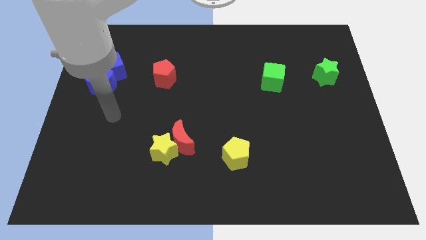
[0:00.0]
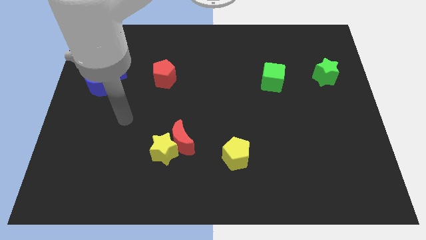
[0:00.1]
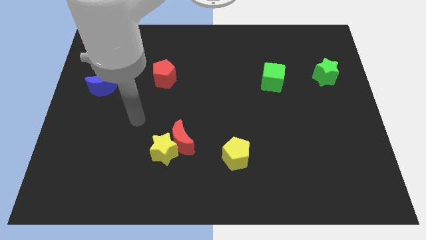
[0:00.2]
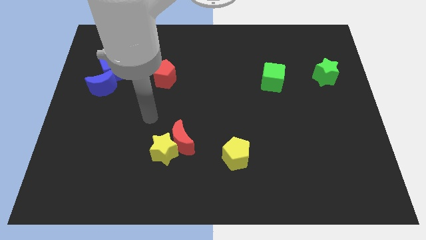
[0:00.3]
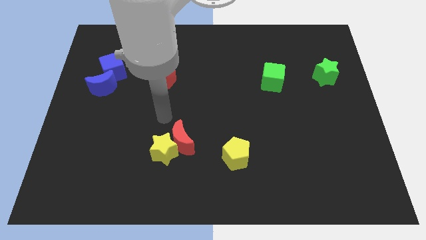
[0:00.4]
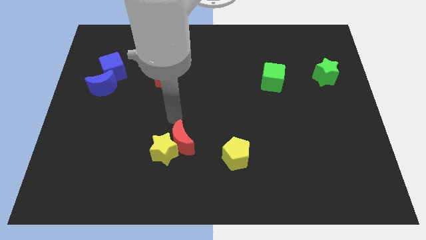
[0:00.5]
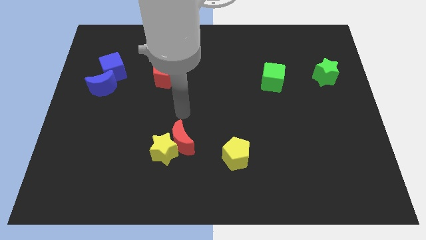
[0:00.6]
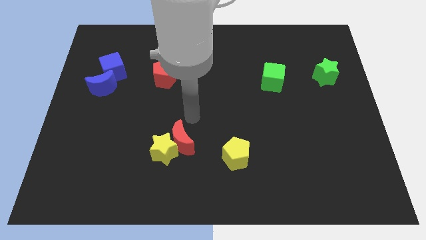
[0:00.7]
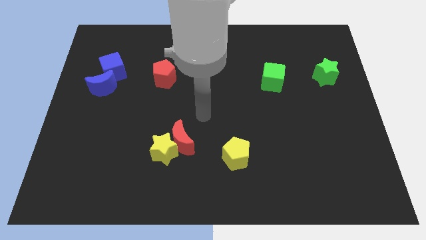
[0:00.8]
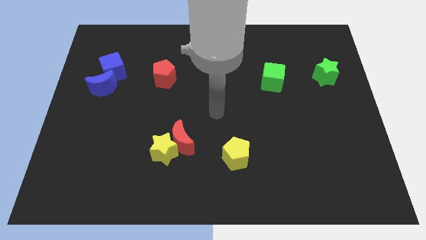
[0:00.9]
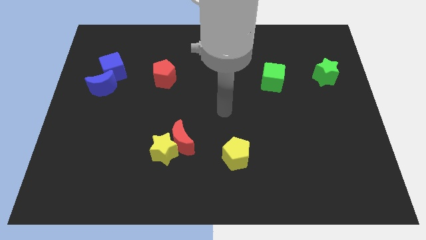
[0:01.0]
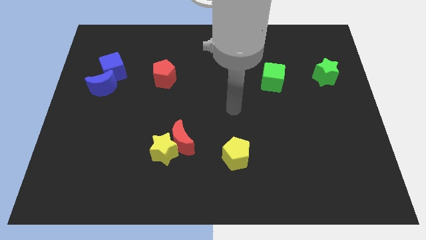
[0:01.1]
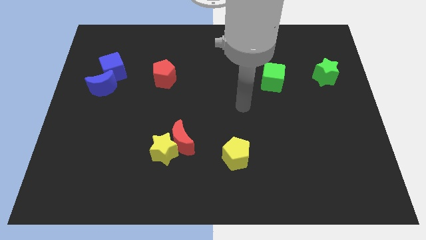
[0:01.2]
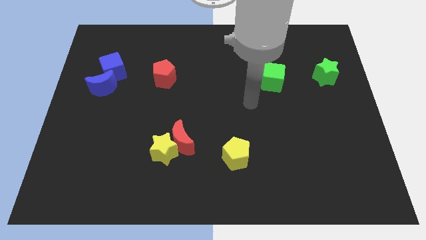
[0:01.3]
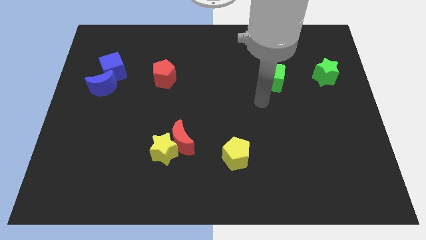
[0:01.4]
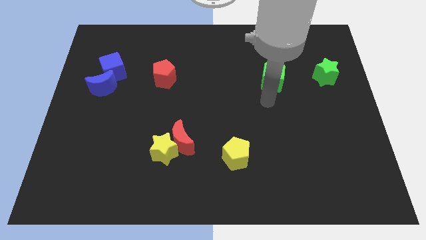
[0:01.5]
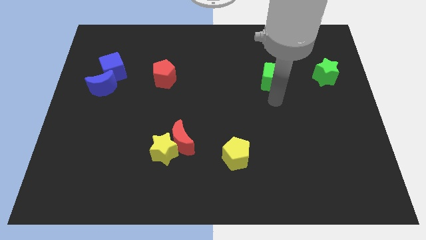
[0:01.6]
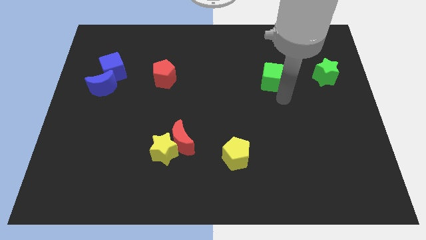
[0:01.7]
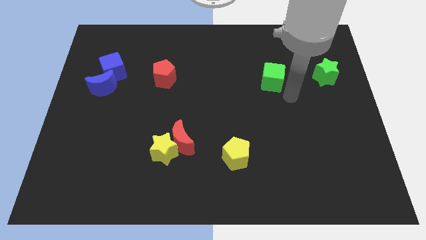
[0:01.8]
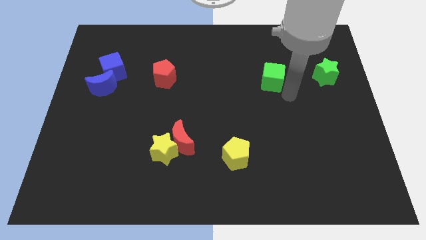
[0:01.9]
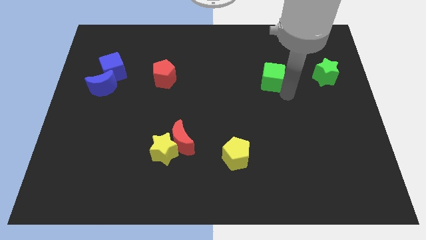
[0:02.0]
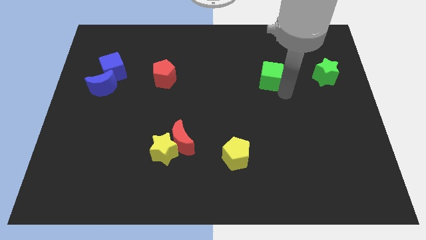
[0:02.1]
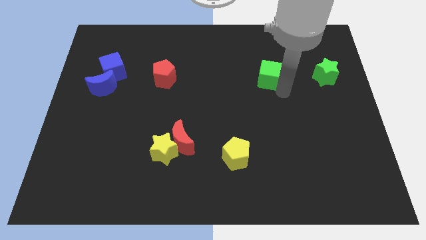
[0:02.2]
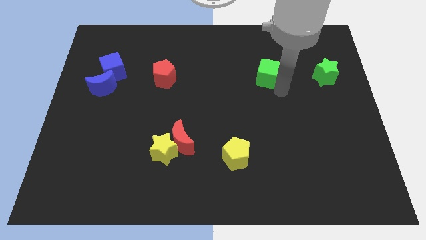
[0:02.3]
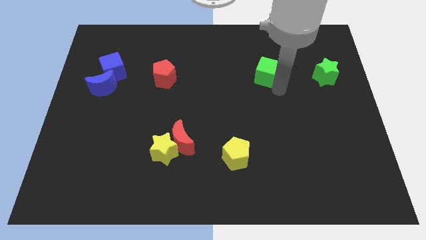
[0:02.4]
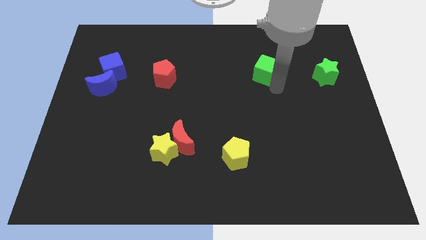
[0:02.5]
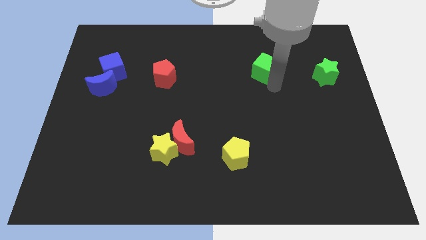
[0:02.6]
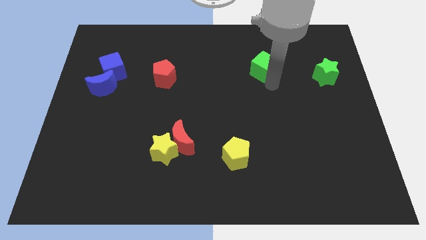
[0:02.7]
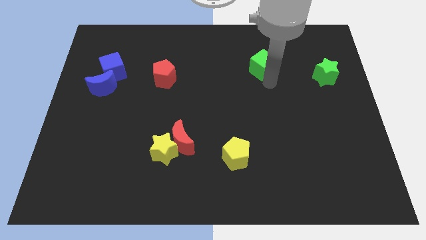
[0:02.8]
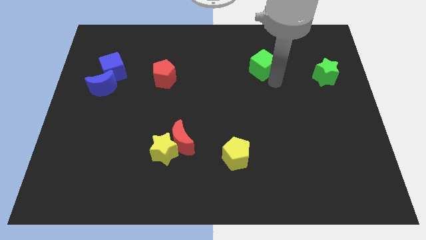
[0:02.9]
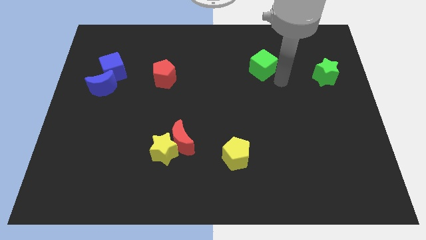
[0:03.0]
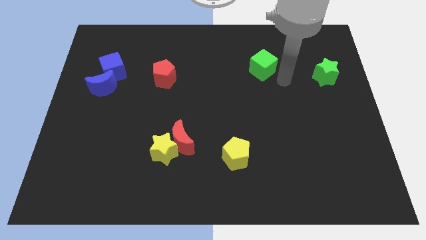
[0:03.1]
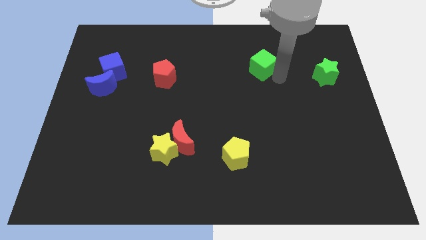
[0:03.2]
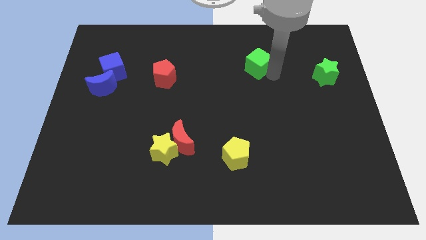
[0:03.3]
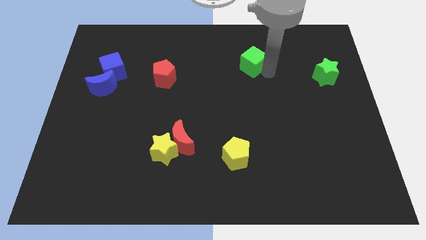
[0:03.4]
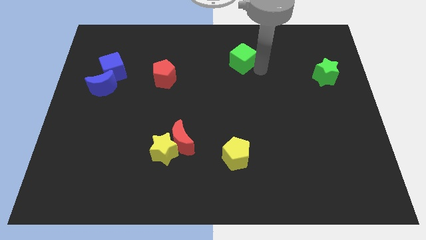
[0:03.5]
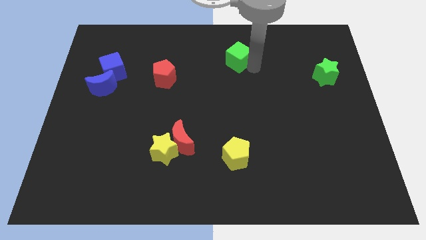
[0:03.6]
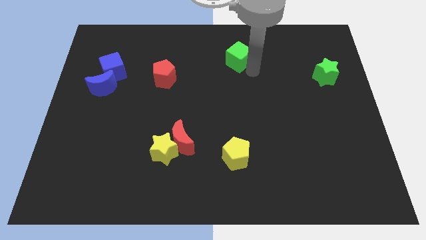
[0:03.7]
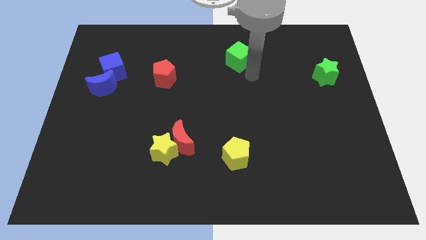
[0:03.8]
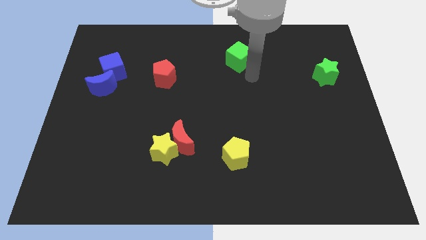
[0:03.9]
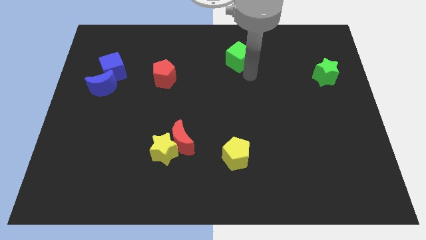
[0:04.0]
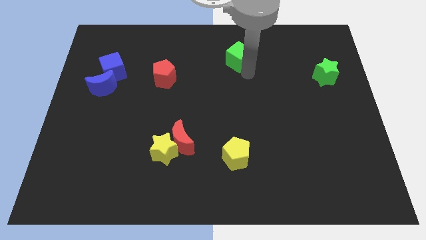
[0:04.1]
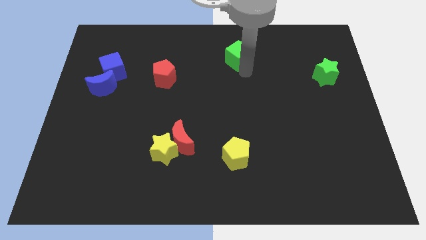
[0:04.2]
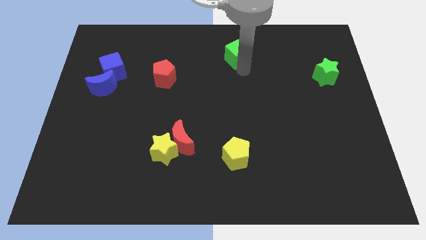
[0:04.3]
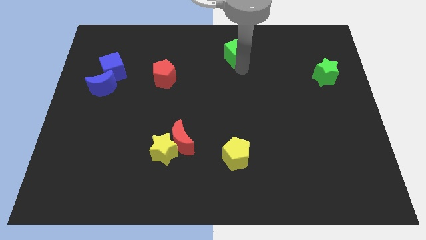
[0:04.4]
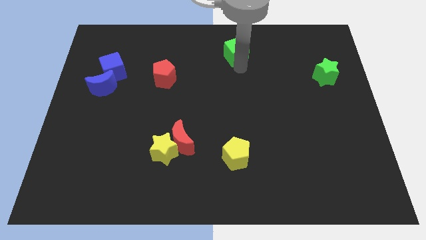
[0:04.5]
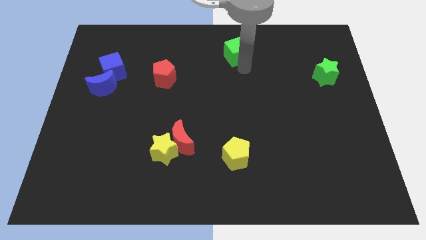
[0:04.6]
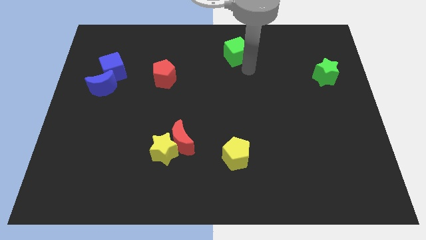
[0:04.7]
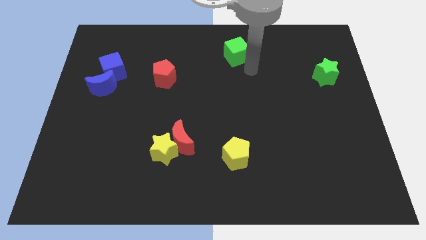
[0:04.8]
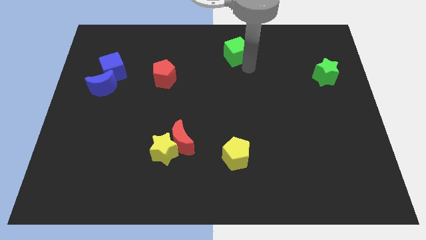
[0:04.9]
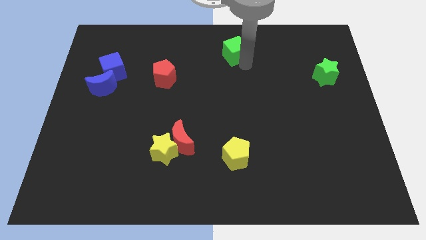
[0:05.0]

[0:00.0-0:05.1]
move the green cube to the towards your base

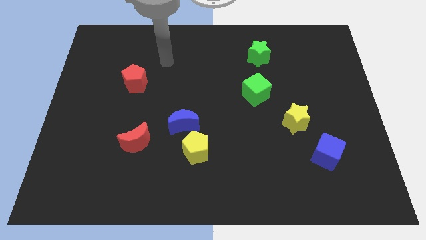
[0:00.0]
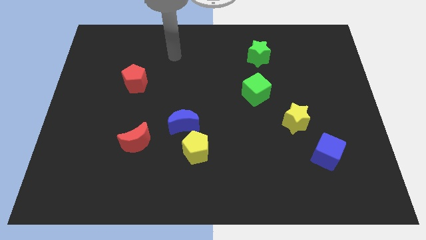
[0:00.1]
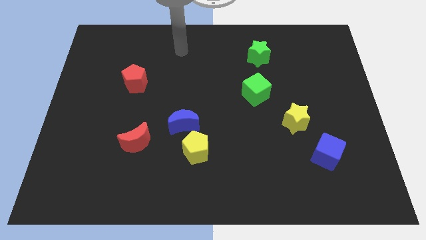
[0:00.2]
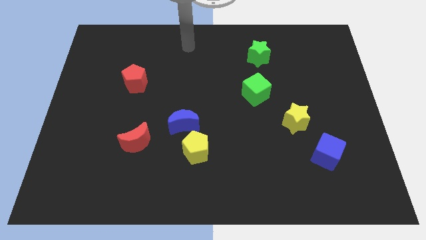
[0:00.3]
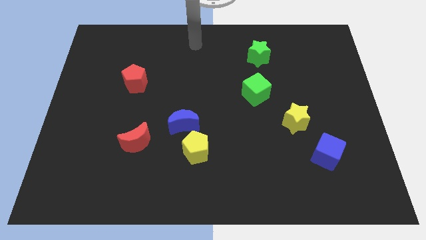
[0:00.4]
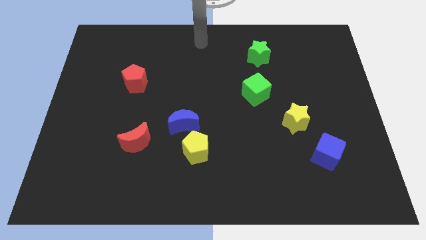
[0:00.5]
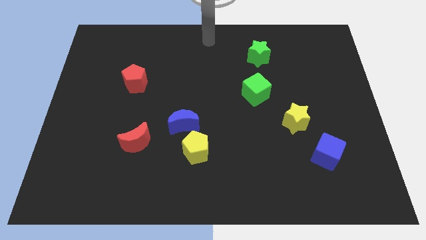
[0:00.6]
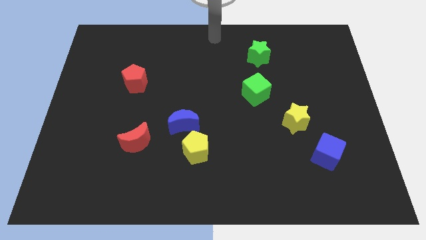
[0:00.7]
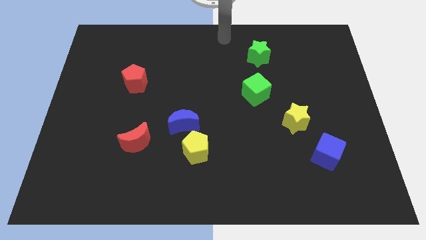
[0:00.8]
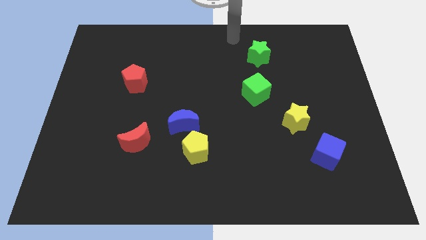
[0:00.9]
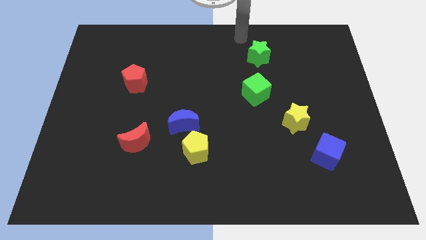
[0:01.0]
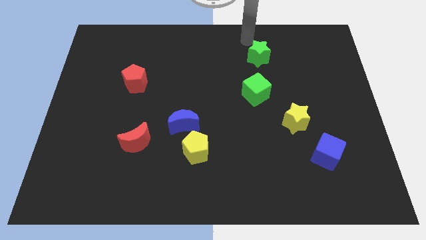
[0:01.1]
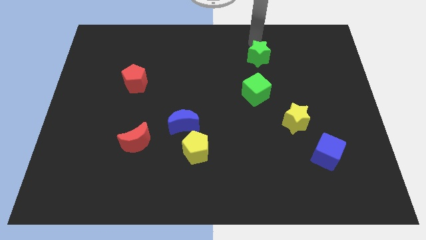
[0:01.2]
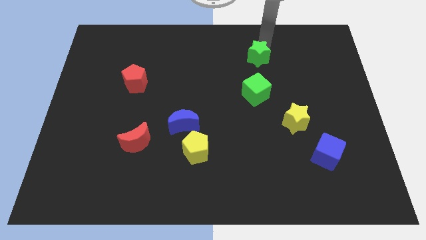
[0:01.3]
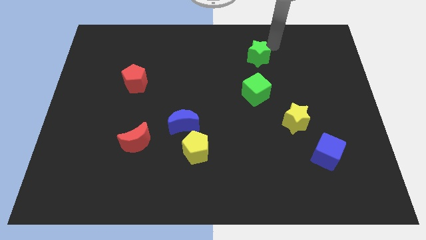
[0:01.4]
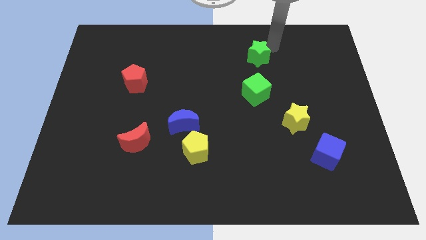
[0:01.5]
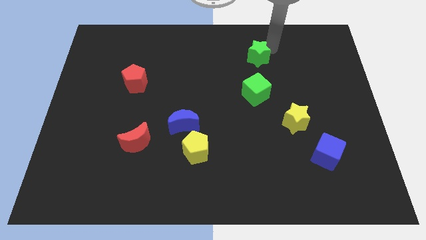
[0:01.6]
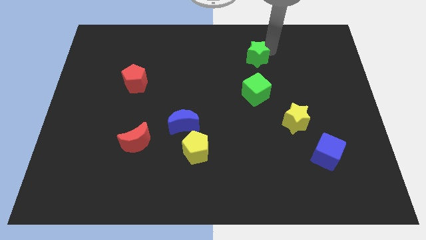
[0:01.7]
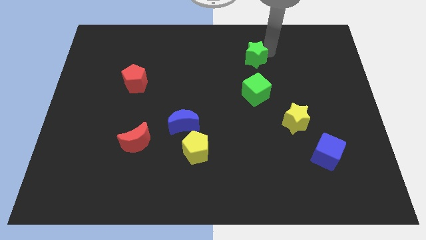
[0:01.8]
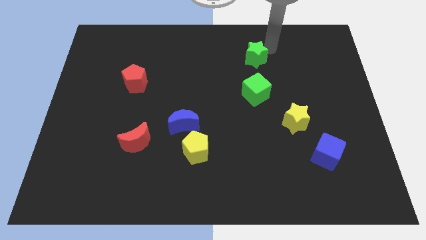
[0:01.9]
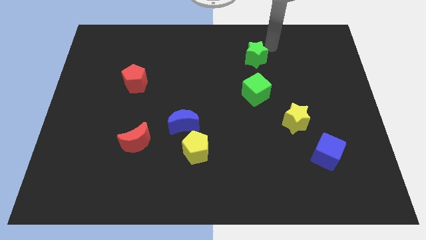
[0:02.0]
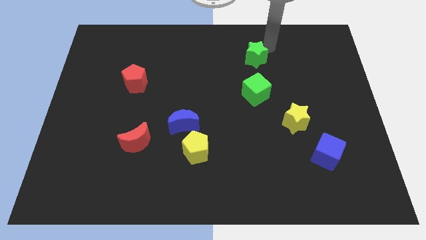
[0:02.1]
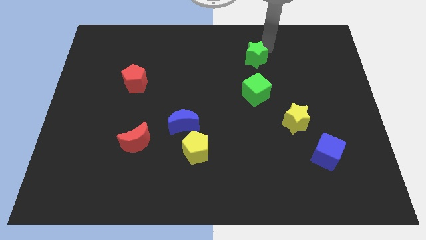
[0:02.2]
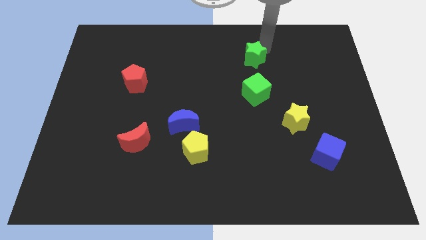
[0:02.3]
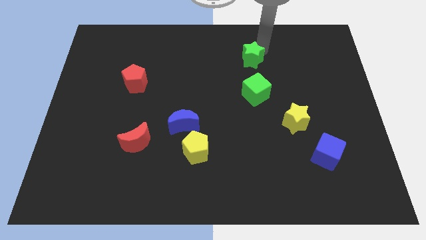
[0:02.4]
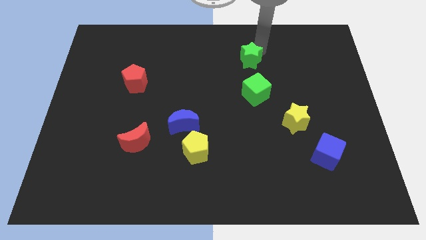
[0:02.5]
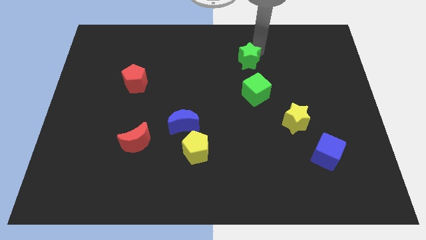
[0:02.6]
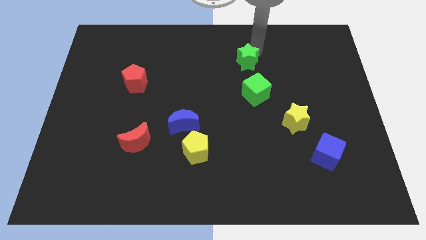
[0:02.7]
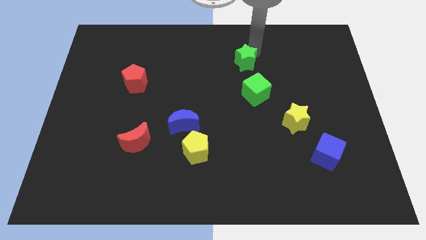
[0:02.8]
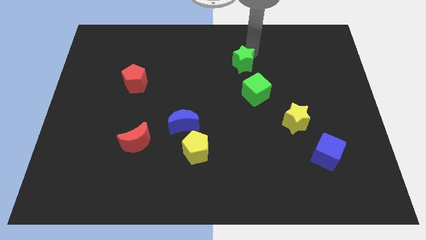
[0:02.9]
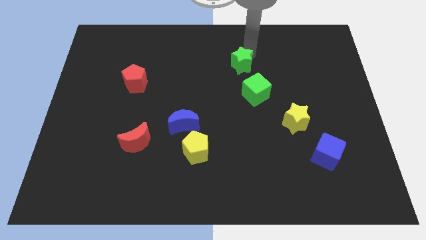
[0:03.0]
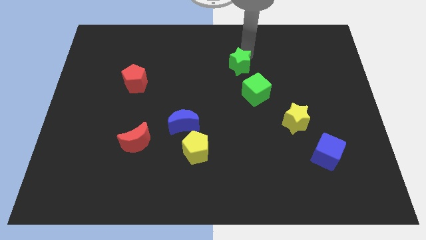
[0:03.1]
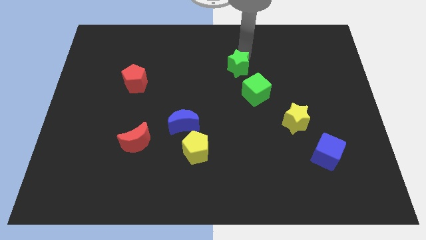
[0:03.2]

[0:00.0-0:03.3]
put the green star to the middle
